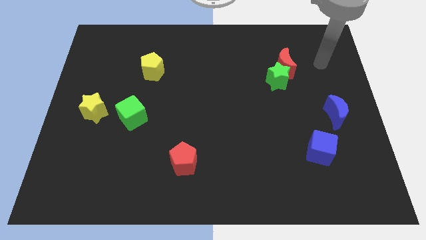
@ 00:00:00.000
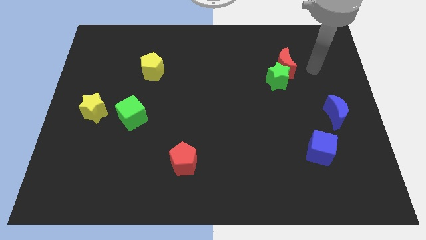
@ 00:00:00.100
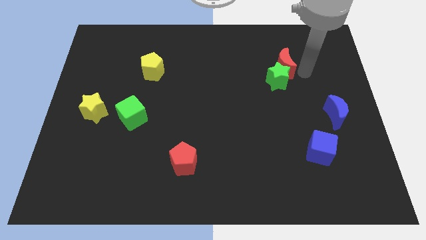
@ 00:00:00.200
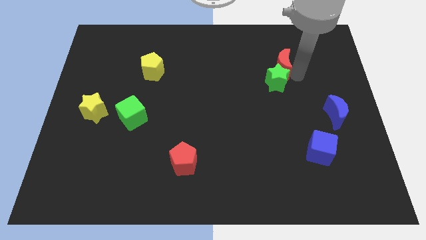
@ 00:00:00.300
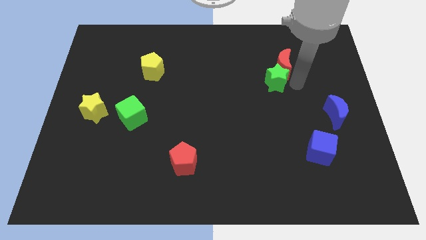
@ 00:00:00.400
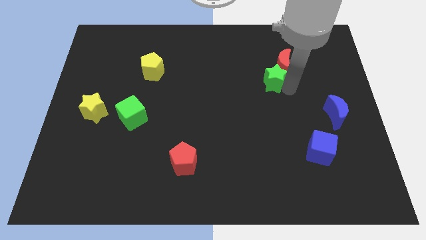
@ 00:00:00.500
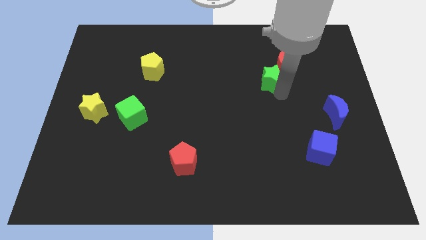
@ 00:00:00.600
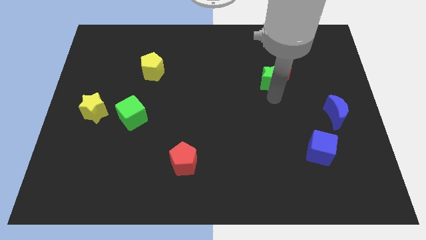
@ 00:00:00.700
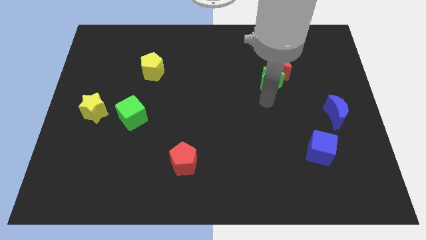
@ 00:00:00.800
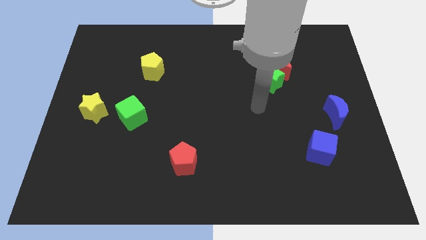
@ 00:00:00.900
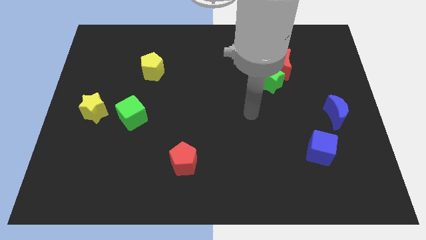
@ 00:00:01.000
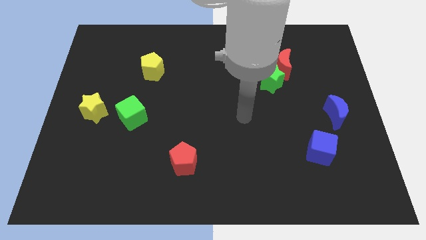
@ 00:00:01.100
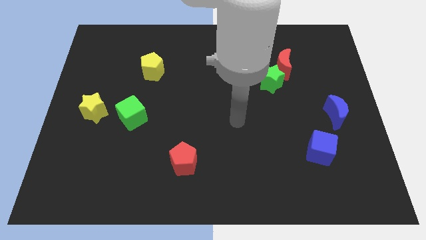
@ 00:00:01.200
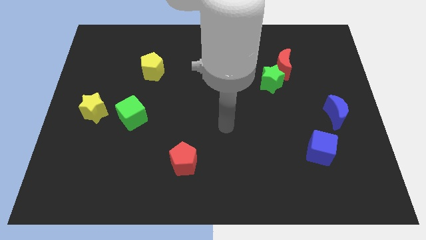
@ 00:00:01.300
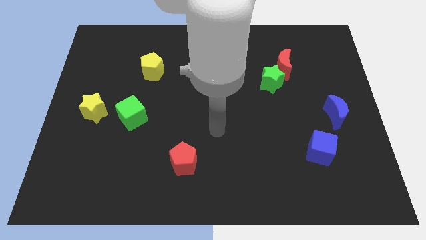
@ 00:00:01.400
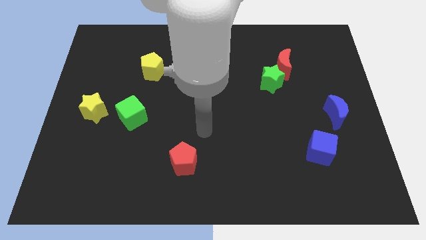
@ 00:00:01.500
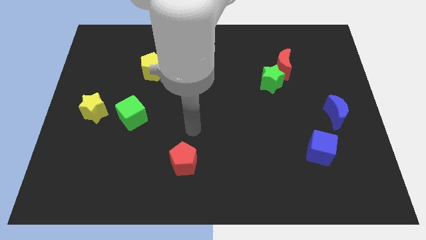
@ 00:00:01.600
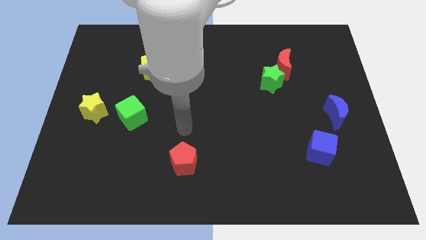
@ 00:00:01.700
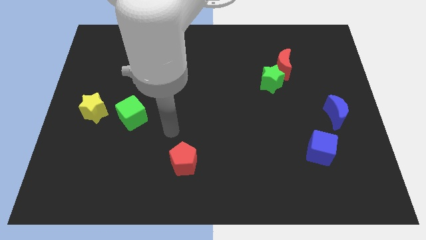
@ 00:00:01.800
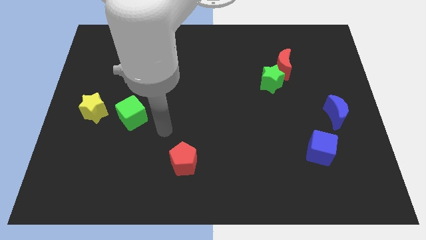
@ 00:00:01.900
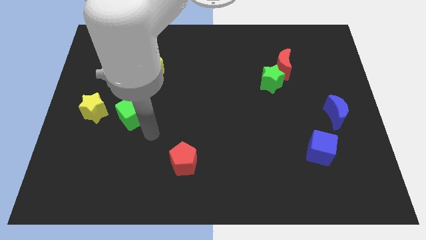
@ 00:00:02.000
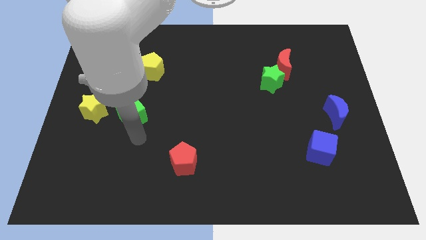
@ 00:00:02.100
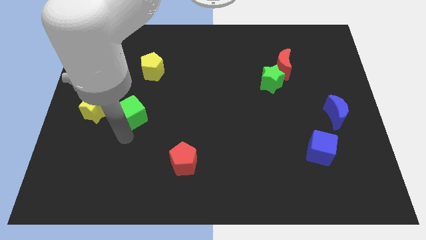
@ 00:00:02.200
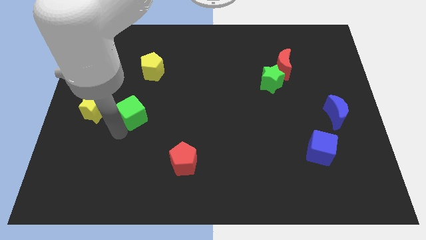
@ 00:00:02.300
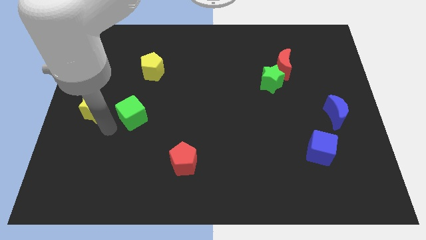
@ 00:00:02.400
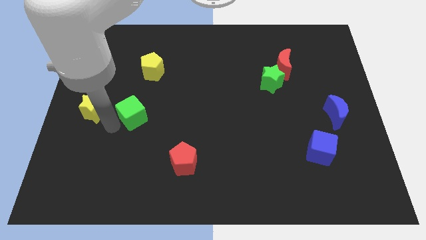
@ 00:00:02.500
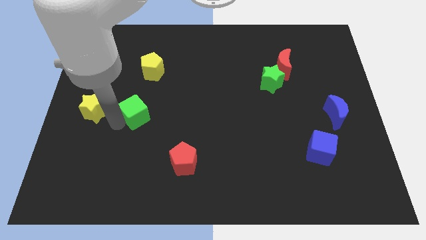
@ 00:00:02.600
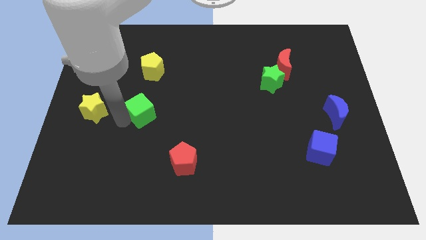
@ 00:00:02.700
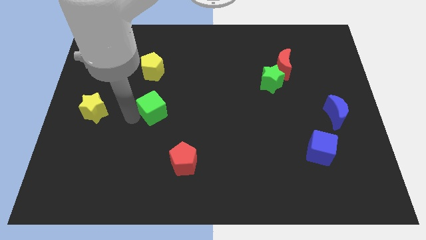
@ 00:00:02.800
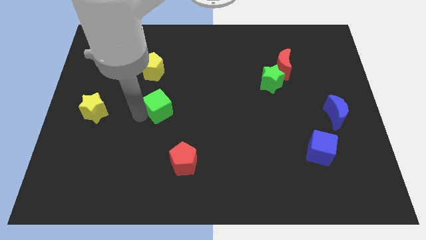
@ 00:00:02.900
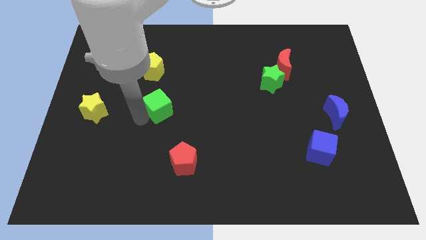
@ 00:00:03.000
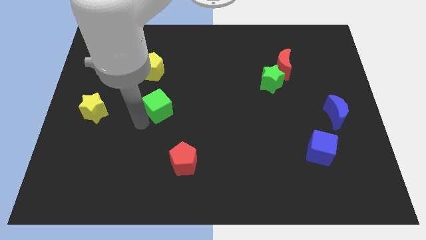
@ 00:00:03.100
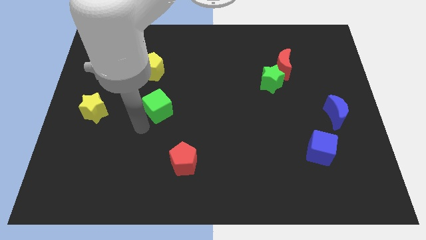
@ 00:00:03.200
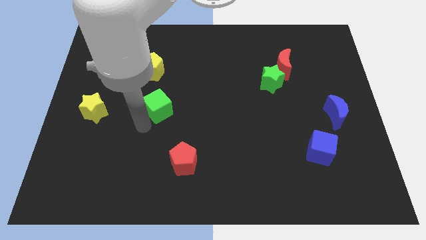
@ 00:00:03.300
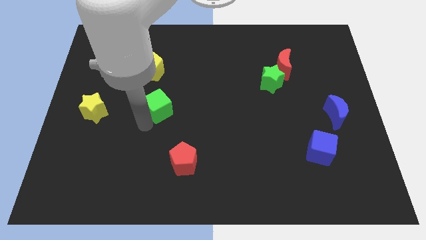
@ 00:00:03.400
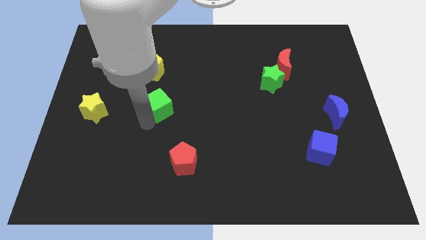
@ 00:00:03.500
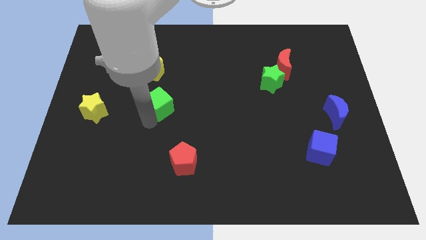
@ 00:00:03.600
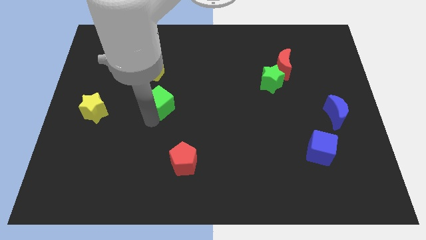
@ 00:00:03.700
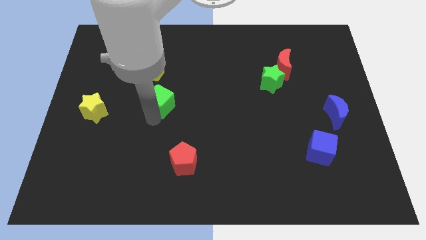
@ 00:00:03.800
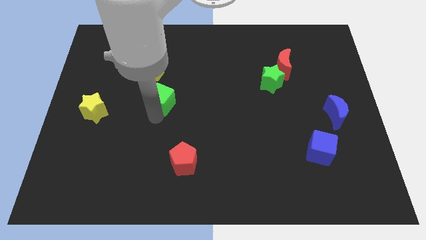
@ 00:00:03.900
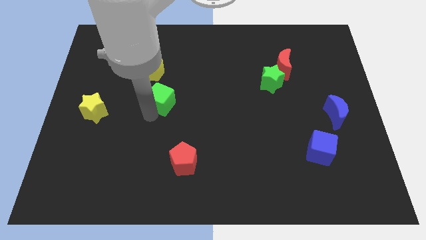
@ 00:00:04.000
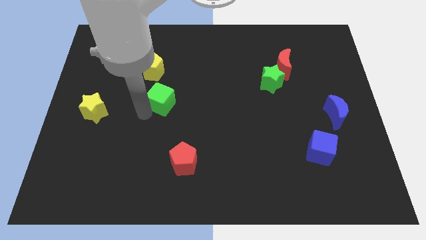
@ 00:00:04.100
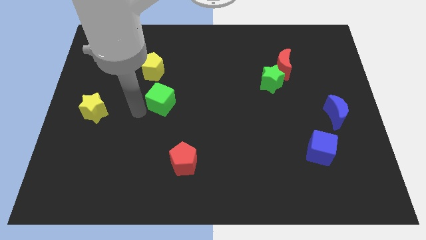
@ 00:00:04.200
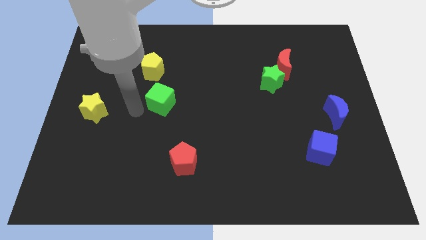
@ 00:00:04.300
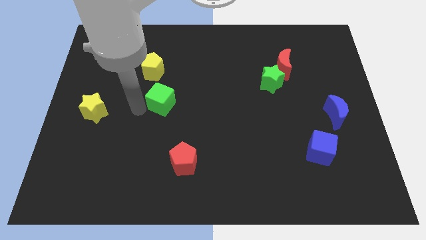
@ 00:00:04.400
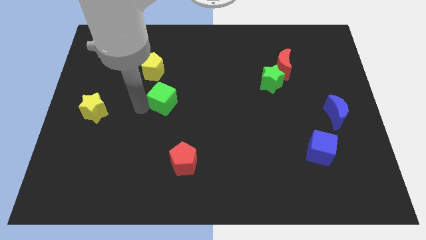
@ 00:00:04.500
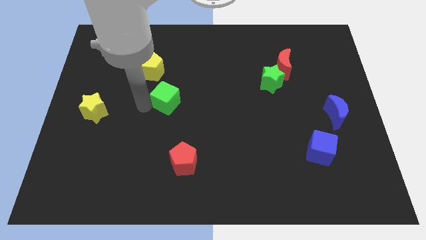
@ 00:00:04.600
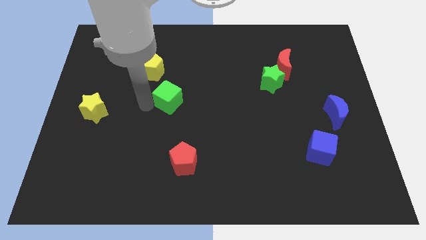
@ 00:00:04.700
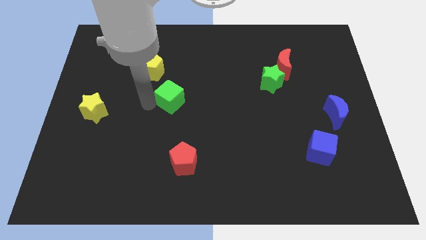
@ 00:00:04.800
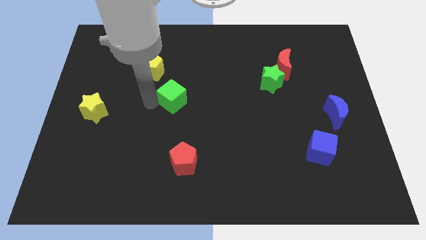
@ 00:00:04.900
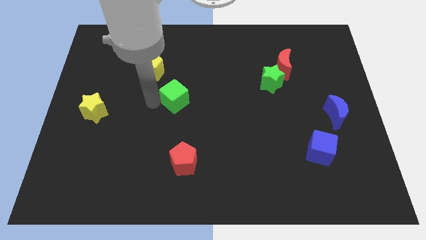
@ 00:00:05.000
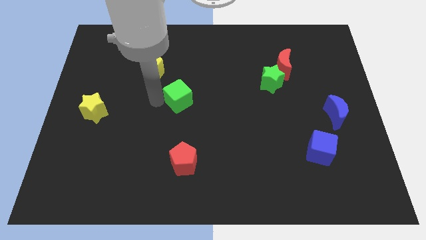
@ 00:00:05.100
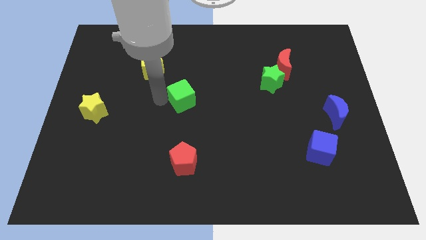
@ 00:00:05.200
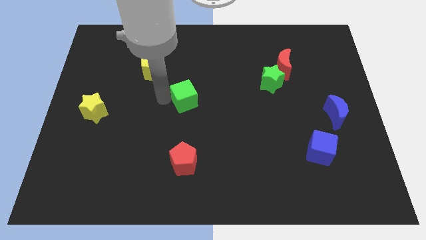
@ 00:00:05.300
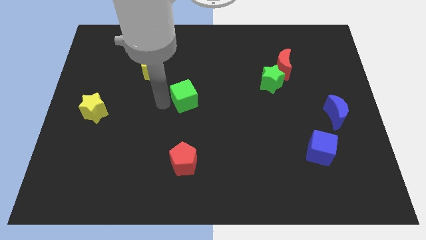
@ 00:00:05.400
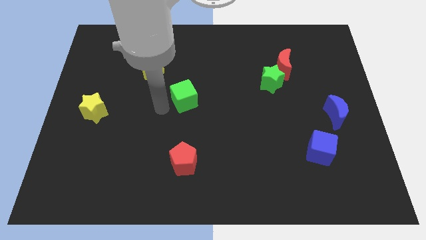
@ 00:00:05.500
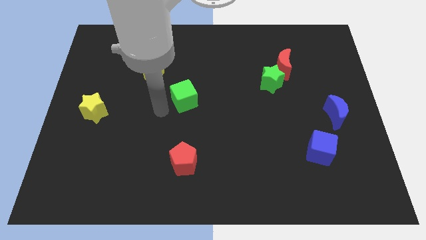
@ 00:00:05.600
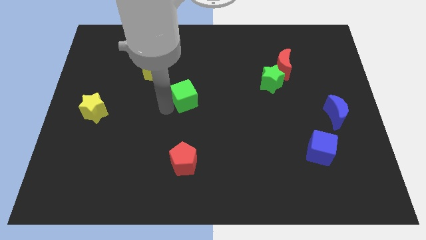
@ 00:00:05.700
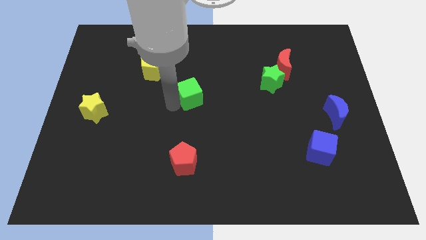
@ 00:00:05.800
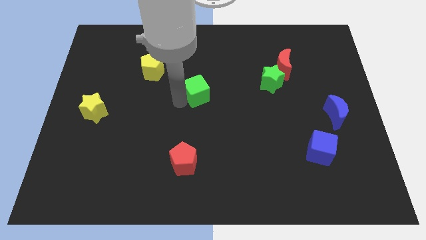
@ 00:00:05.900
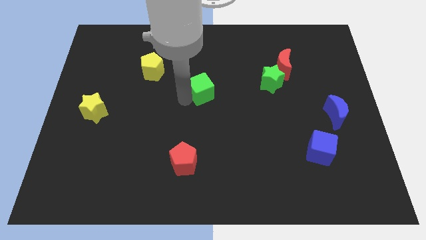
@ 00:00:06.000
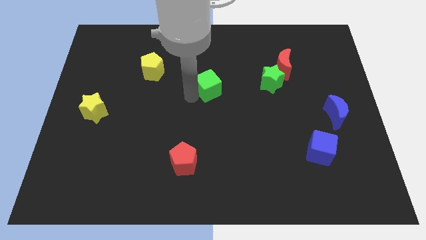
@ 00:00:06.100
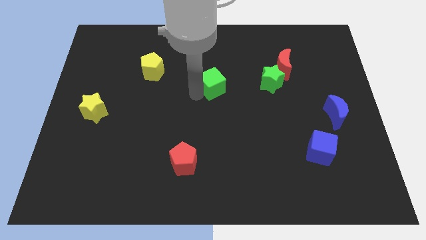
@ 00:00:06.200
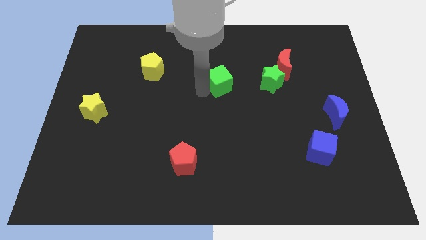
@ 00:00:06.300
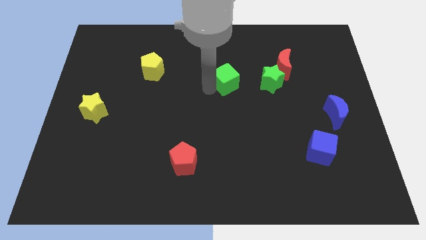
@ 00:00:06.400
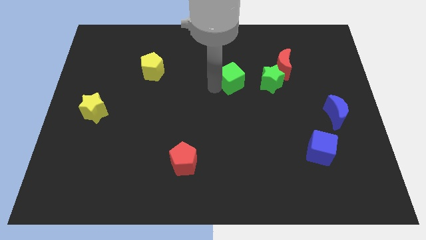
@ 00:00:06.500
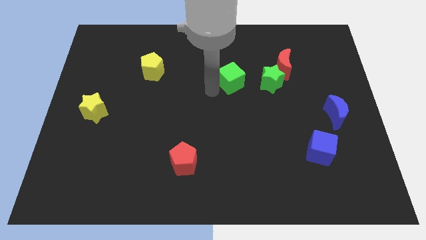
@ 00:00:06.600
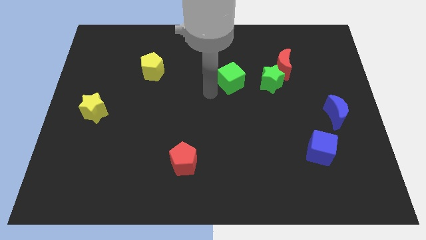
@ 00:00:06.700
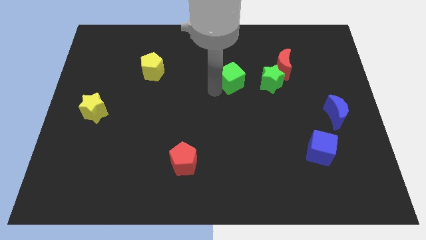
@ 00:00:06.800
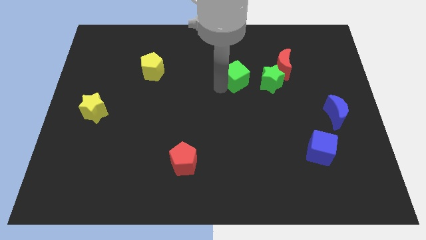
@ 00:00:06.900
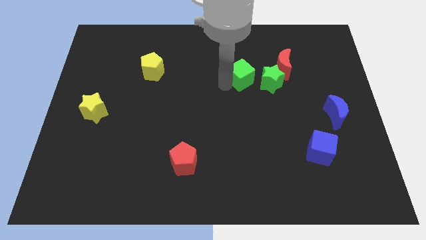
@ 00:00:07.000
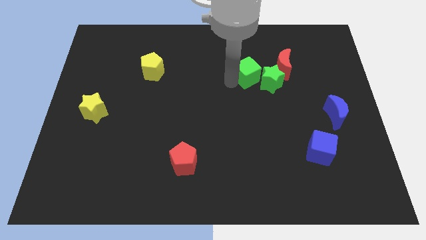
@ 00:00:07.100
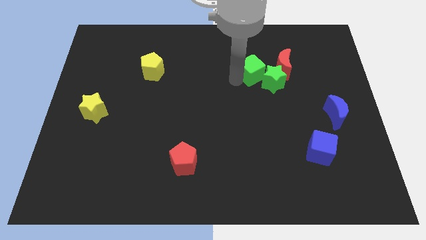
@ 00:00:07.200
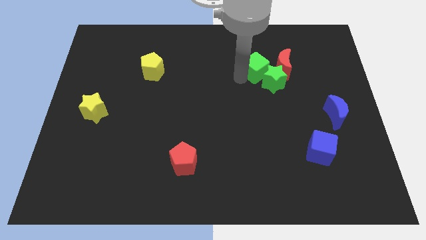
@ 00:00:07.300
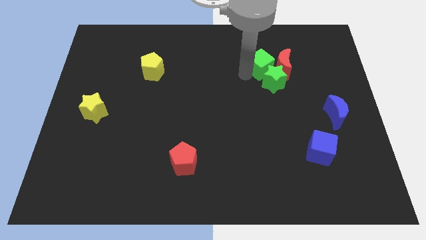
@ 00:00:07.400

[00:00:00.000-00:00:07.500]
slide the green cube to the red moon
